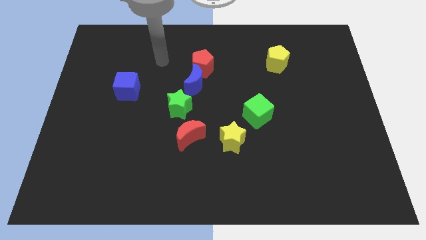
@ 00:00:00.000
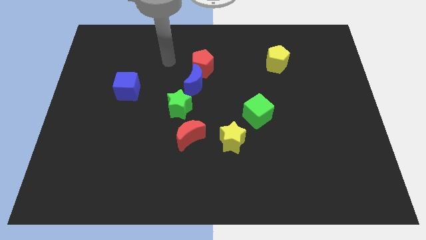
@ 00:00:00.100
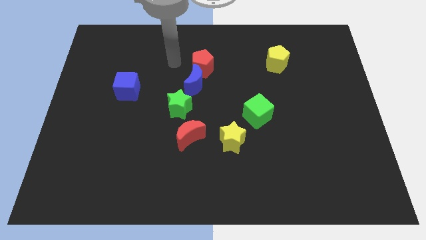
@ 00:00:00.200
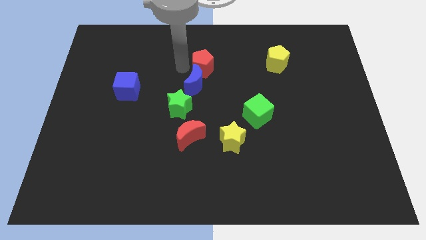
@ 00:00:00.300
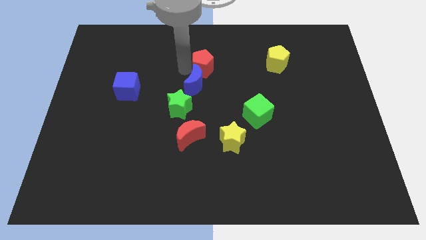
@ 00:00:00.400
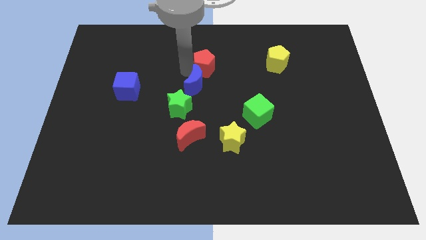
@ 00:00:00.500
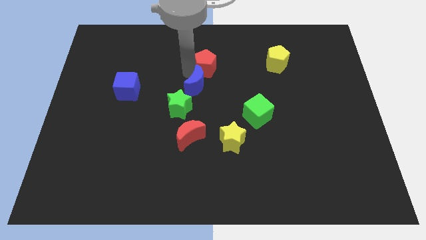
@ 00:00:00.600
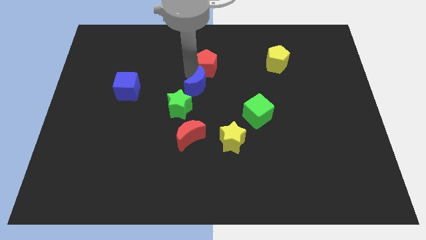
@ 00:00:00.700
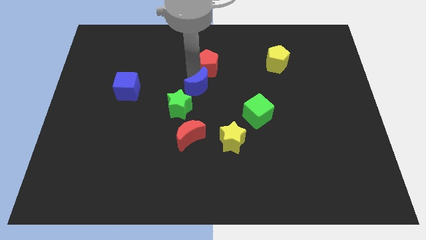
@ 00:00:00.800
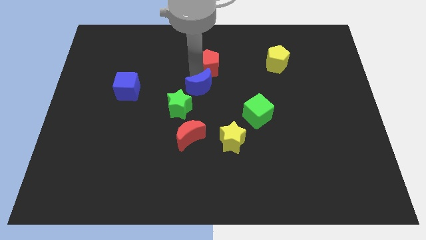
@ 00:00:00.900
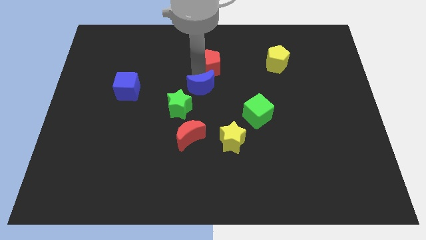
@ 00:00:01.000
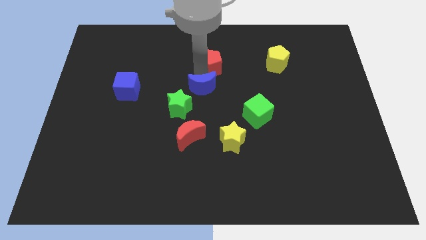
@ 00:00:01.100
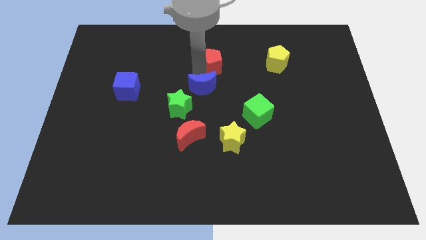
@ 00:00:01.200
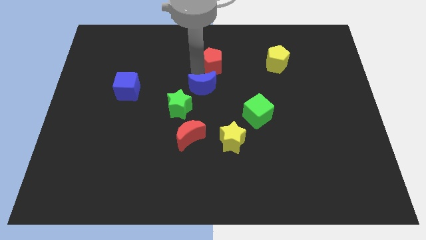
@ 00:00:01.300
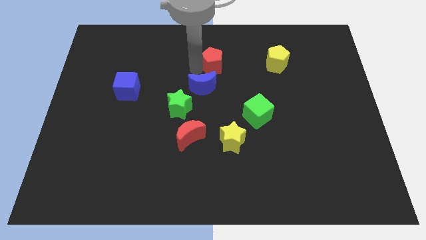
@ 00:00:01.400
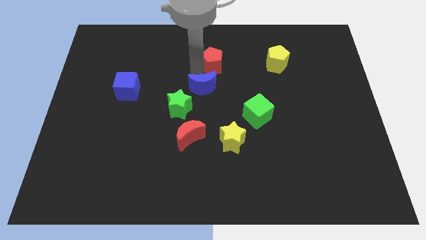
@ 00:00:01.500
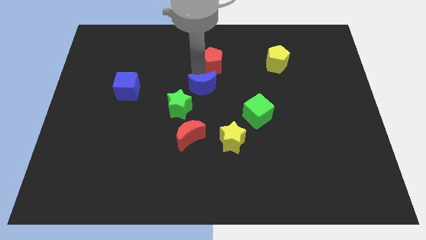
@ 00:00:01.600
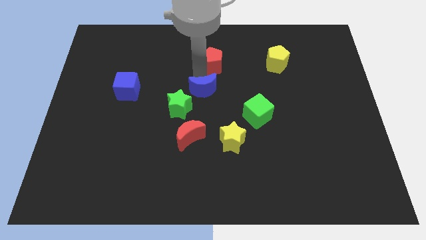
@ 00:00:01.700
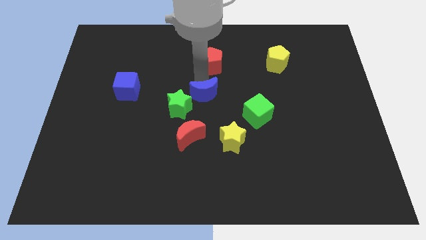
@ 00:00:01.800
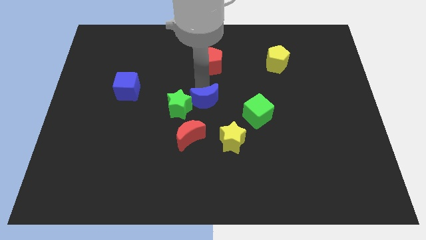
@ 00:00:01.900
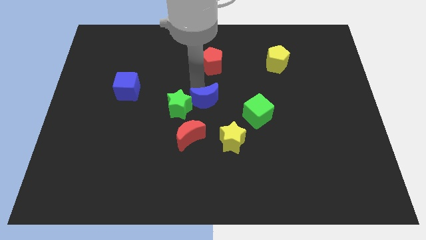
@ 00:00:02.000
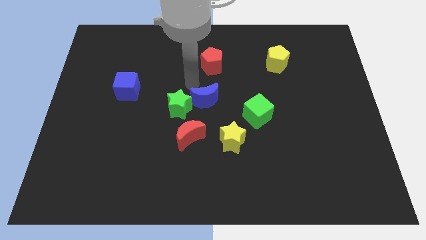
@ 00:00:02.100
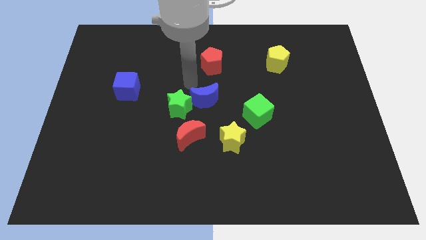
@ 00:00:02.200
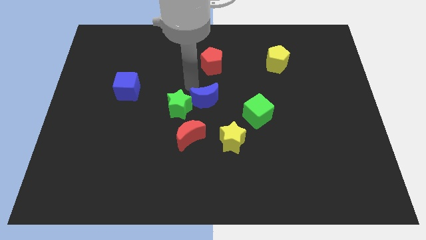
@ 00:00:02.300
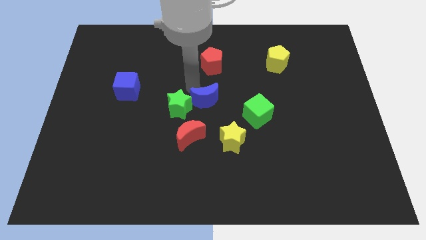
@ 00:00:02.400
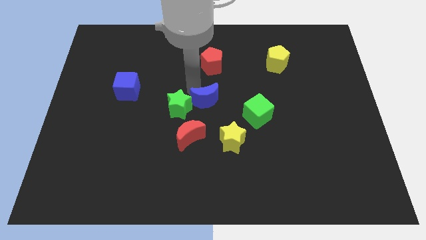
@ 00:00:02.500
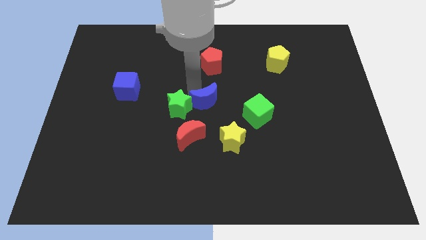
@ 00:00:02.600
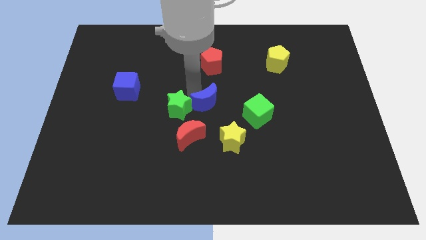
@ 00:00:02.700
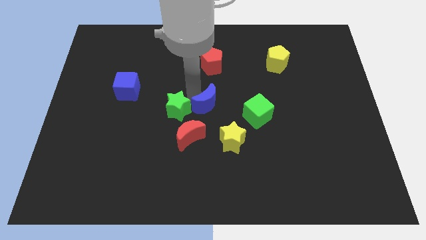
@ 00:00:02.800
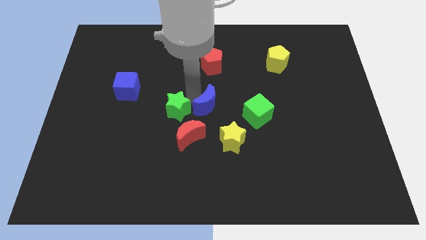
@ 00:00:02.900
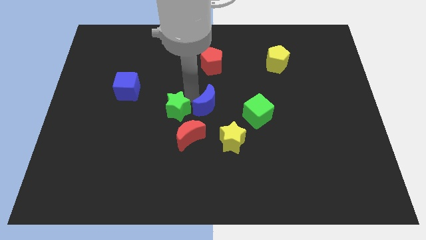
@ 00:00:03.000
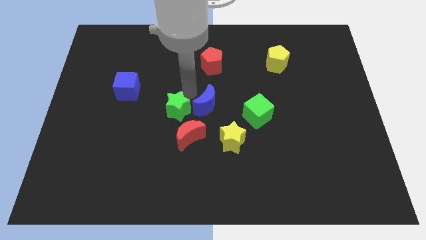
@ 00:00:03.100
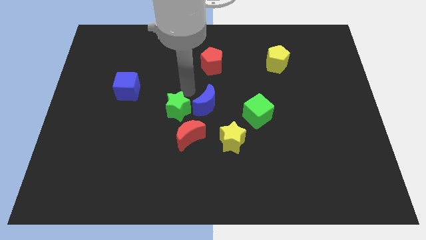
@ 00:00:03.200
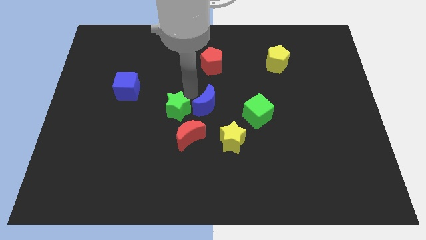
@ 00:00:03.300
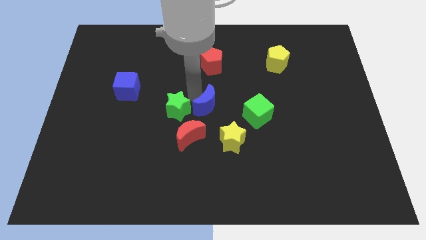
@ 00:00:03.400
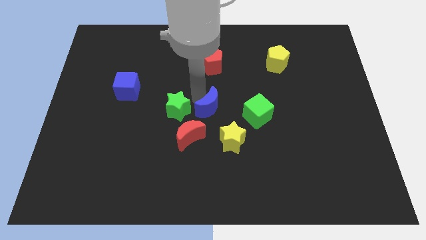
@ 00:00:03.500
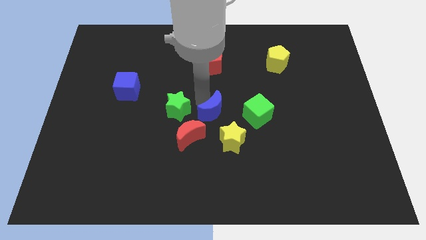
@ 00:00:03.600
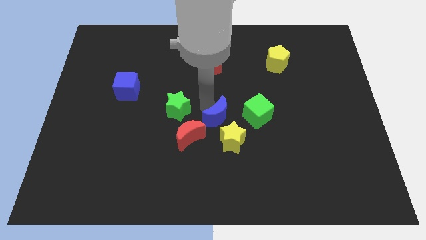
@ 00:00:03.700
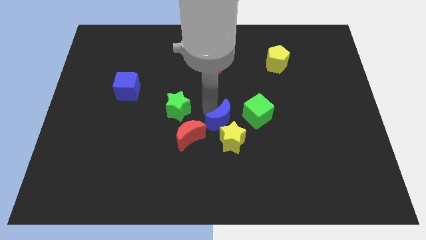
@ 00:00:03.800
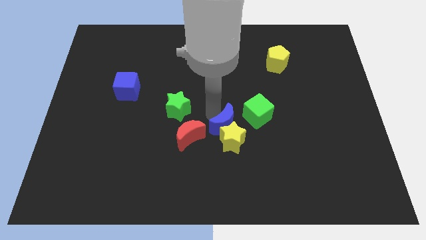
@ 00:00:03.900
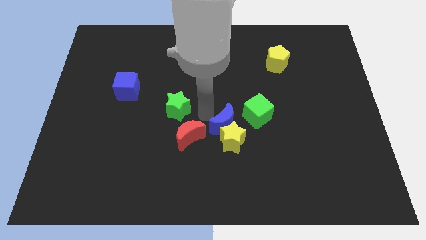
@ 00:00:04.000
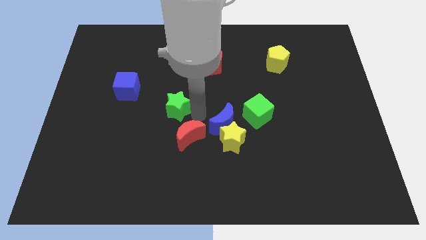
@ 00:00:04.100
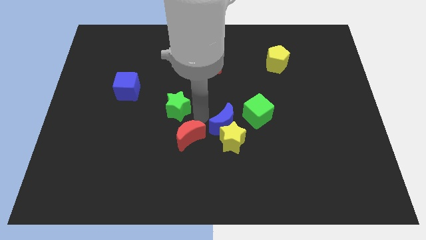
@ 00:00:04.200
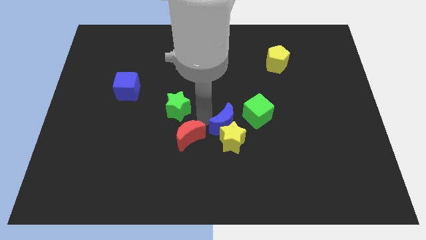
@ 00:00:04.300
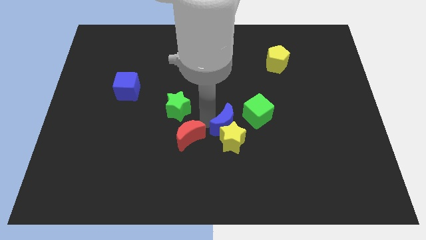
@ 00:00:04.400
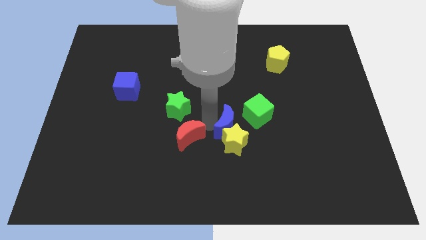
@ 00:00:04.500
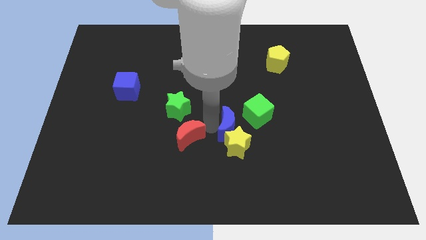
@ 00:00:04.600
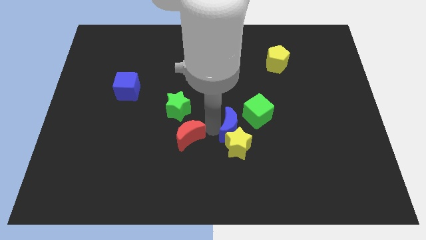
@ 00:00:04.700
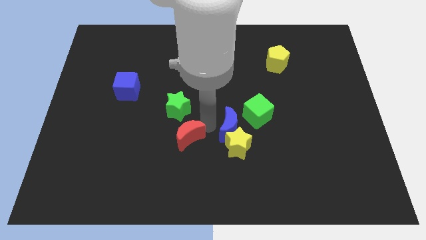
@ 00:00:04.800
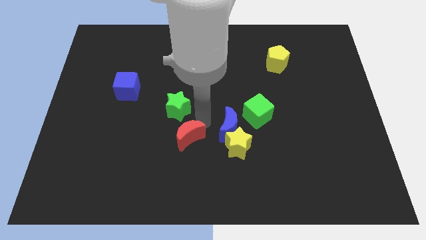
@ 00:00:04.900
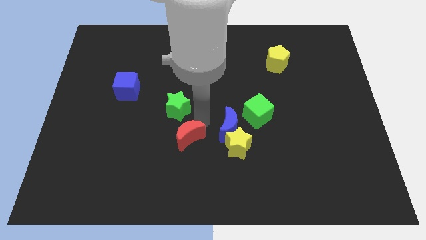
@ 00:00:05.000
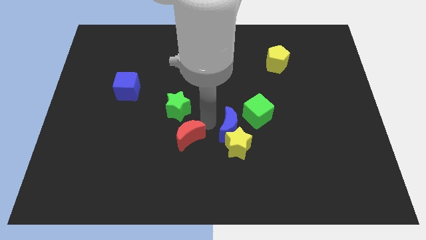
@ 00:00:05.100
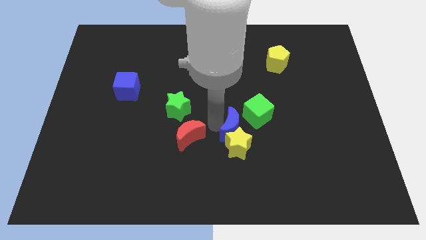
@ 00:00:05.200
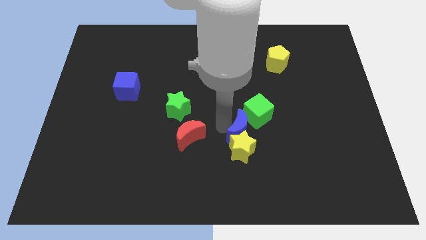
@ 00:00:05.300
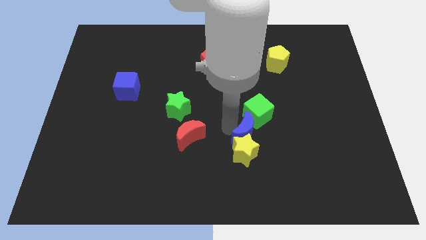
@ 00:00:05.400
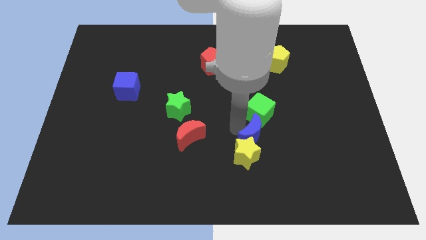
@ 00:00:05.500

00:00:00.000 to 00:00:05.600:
push the blue moon down and to the right diagonally

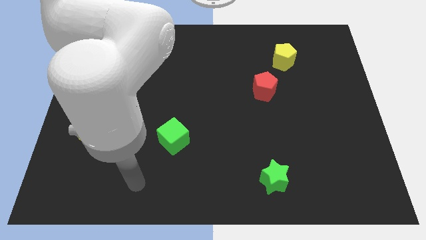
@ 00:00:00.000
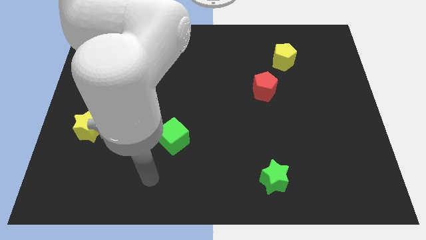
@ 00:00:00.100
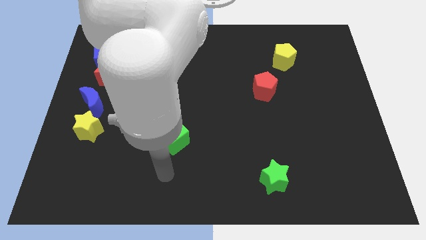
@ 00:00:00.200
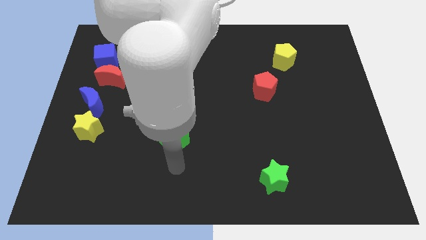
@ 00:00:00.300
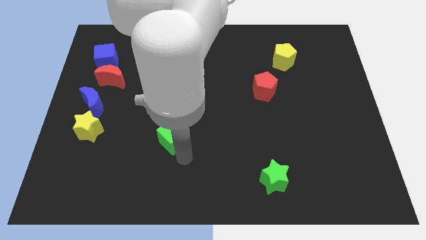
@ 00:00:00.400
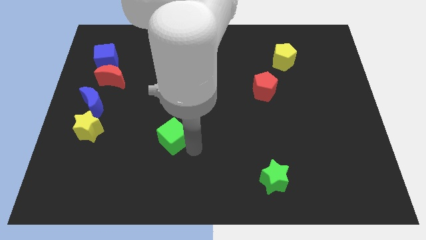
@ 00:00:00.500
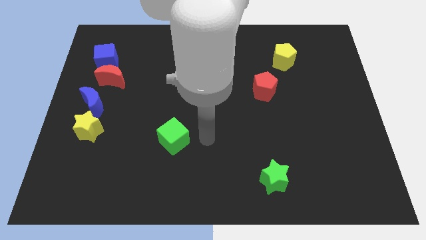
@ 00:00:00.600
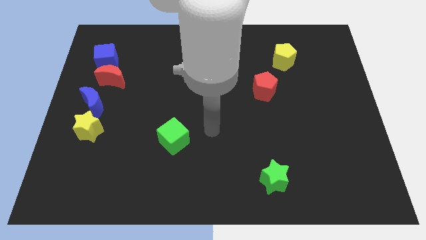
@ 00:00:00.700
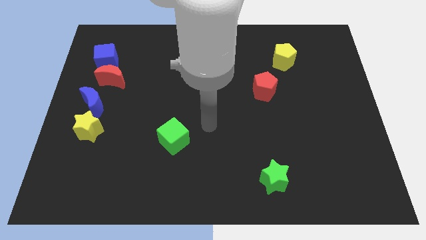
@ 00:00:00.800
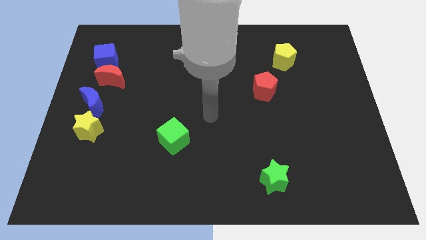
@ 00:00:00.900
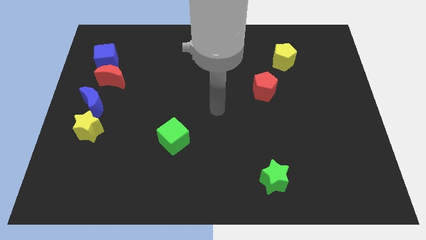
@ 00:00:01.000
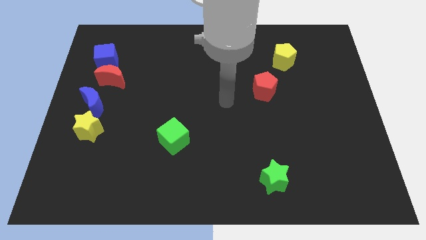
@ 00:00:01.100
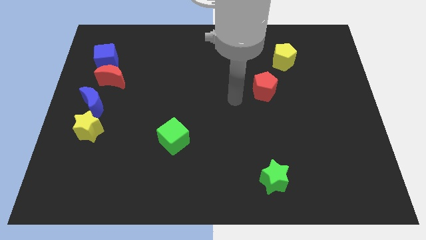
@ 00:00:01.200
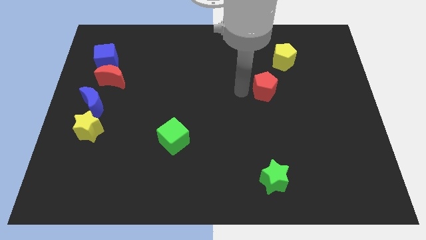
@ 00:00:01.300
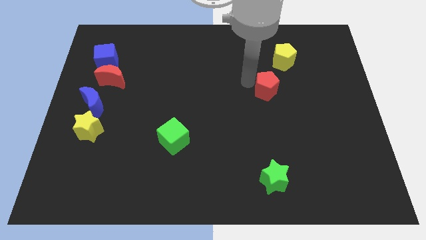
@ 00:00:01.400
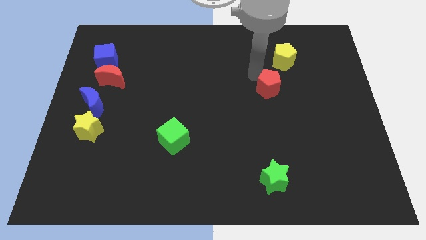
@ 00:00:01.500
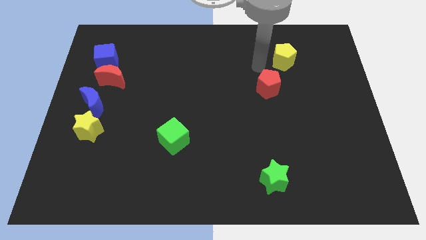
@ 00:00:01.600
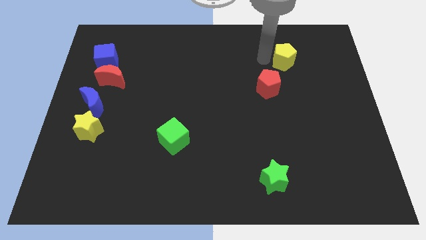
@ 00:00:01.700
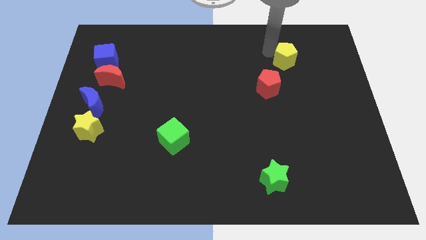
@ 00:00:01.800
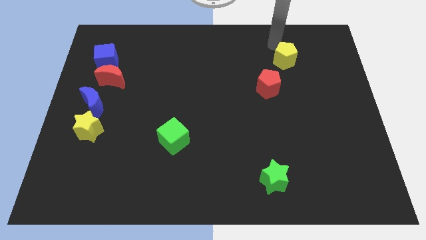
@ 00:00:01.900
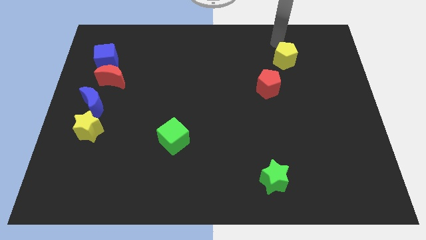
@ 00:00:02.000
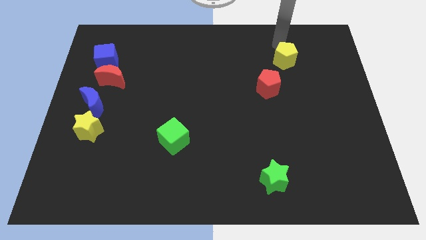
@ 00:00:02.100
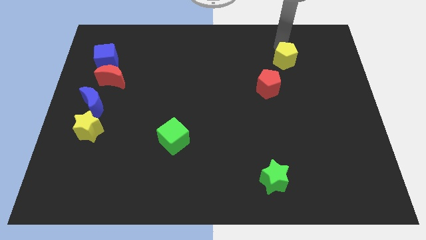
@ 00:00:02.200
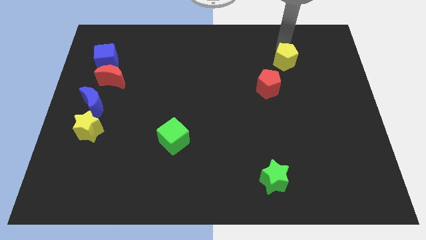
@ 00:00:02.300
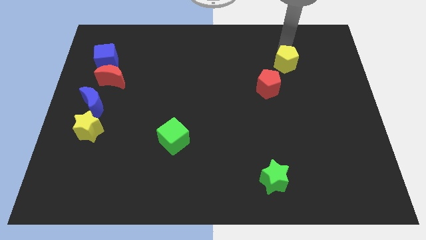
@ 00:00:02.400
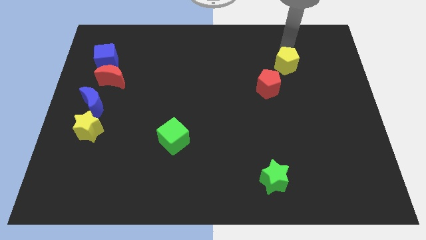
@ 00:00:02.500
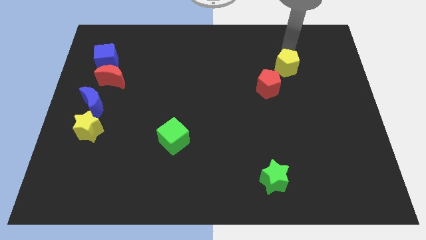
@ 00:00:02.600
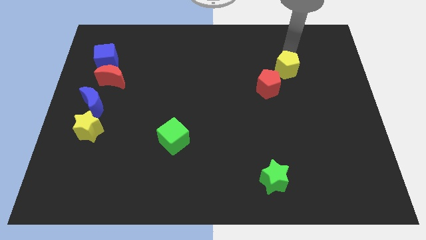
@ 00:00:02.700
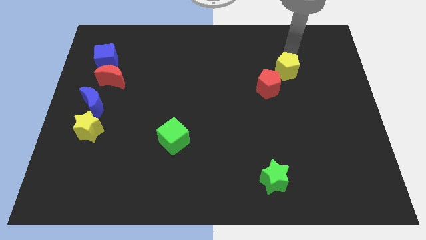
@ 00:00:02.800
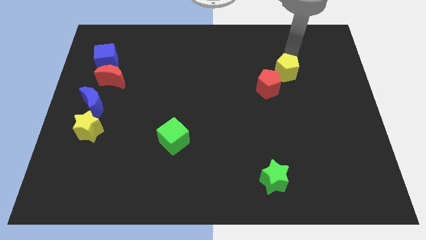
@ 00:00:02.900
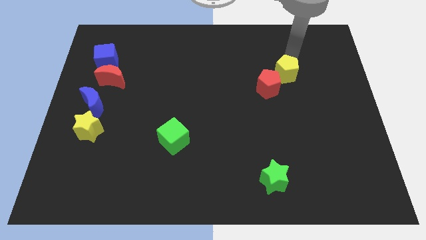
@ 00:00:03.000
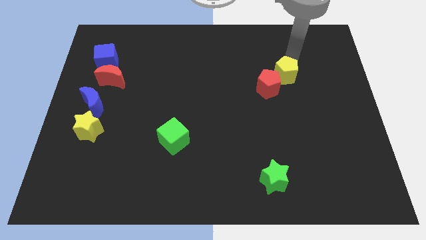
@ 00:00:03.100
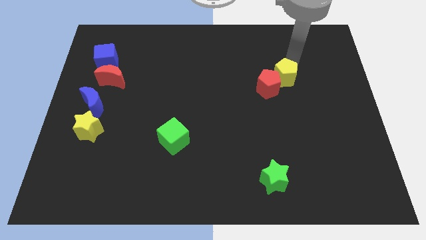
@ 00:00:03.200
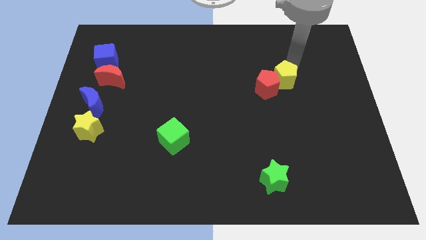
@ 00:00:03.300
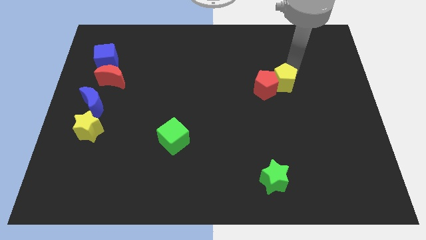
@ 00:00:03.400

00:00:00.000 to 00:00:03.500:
slightly move the yellow pentagon downwards
